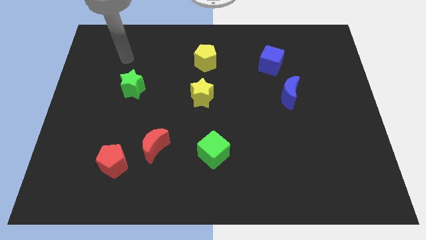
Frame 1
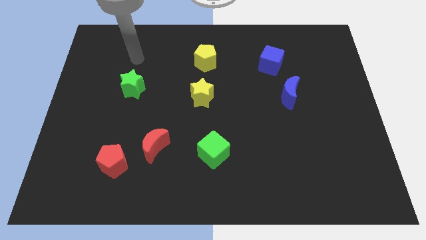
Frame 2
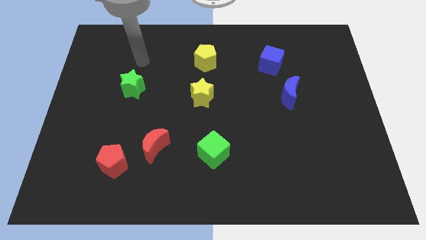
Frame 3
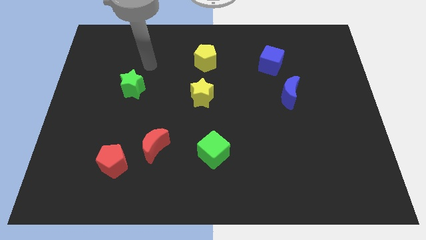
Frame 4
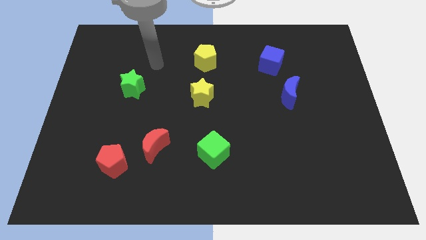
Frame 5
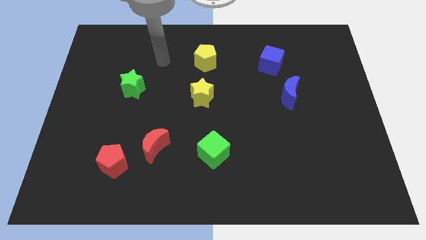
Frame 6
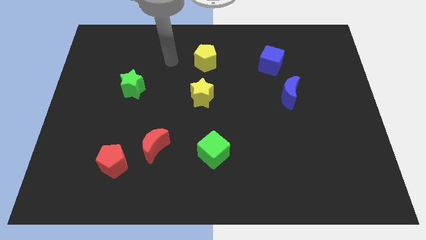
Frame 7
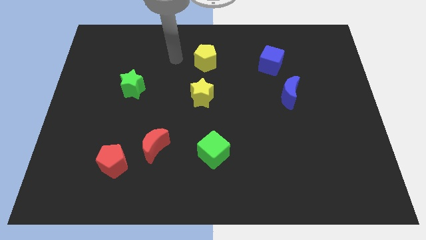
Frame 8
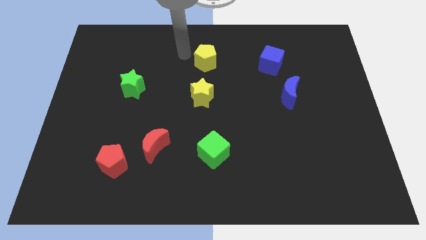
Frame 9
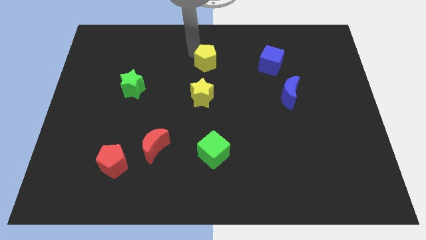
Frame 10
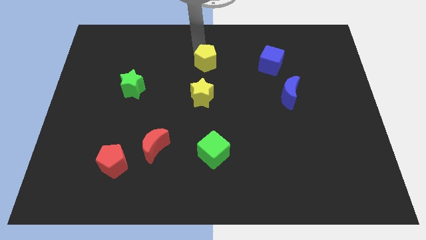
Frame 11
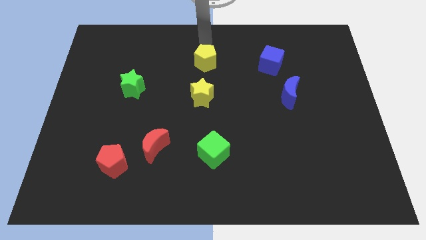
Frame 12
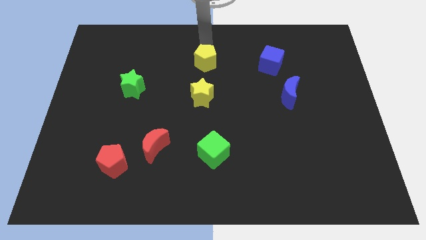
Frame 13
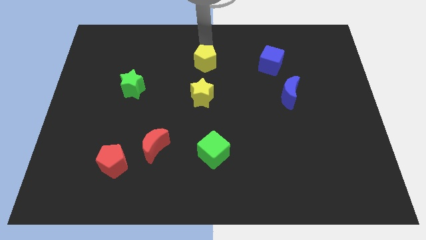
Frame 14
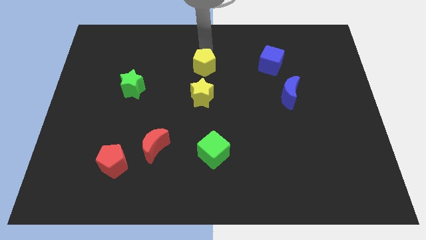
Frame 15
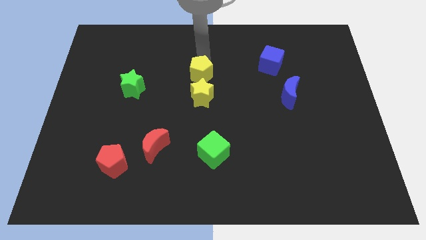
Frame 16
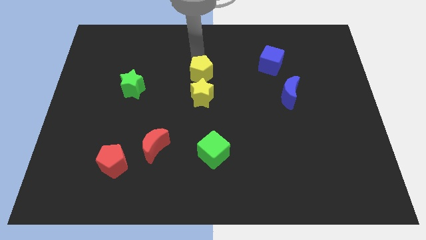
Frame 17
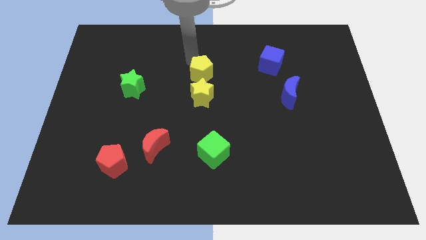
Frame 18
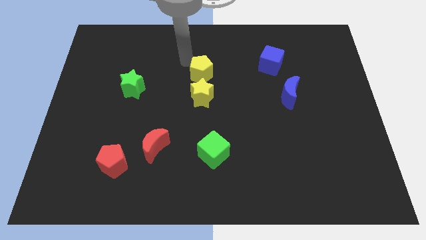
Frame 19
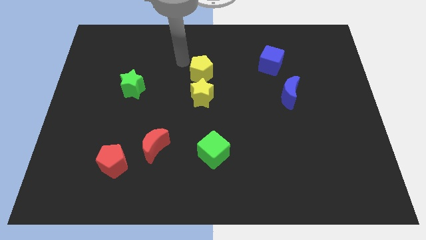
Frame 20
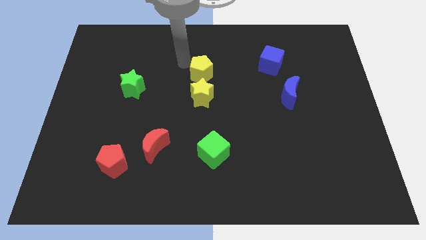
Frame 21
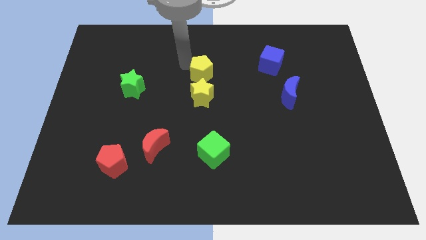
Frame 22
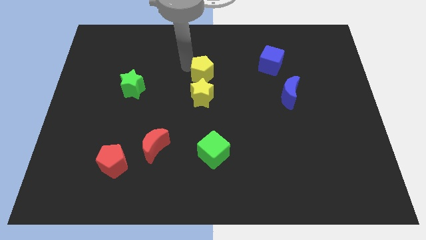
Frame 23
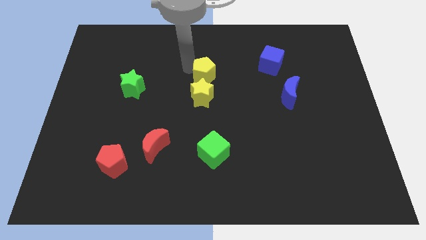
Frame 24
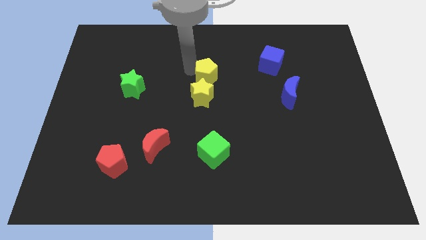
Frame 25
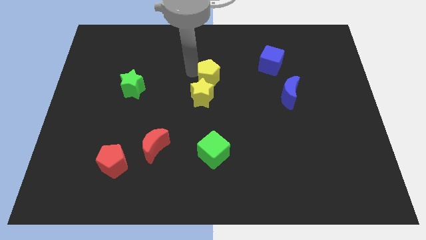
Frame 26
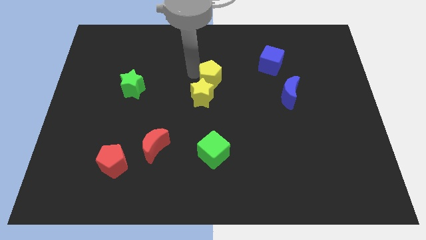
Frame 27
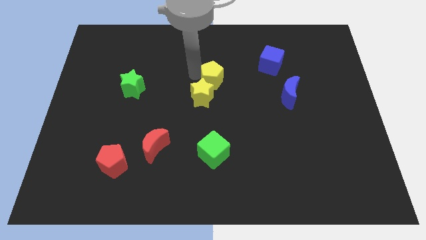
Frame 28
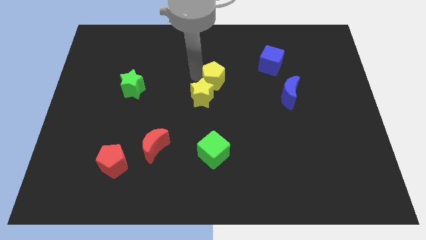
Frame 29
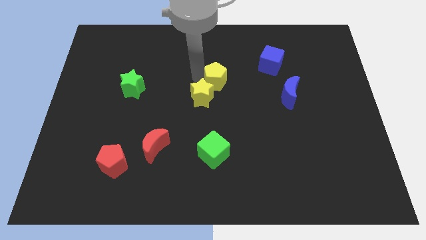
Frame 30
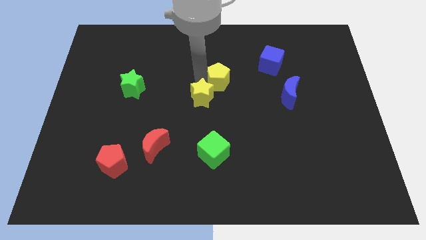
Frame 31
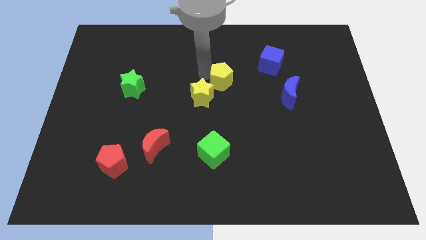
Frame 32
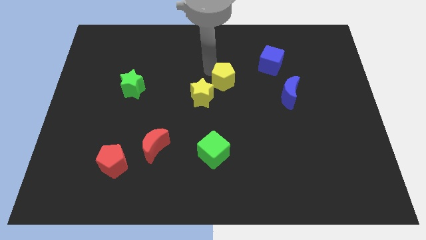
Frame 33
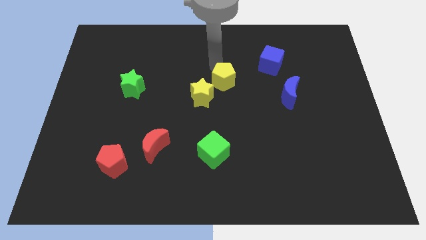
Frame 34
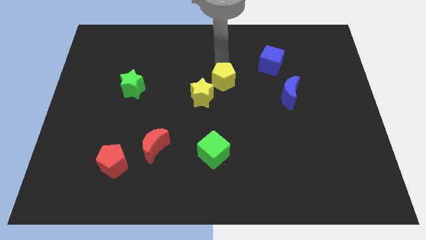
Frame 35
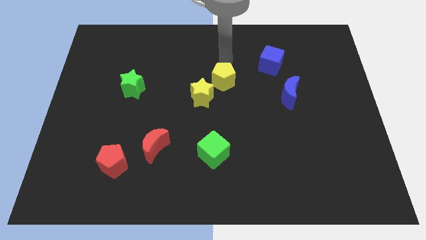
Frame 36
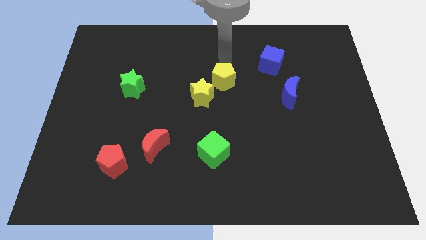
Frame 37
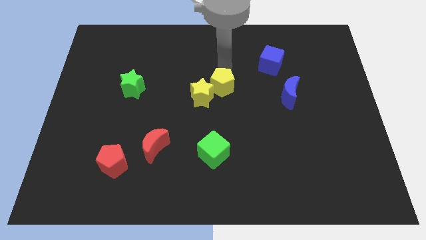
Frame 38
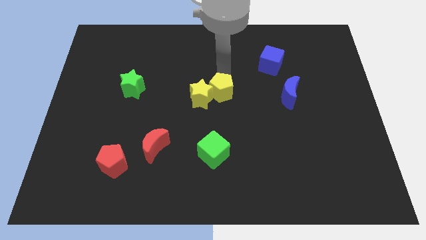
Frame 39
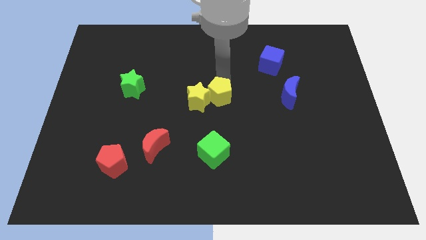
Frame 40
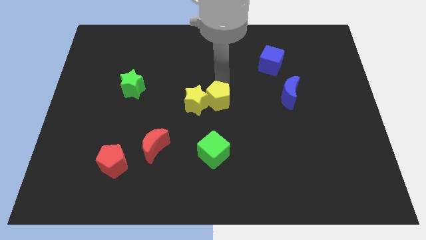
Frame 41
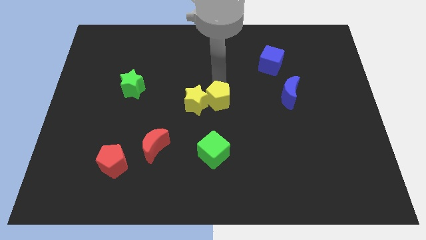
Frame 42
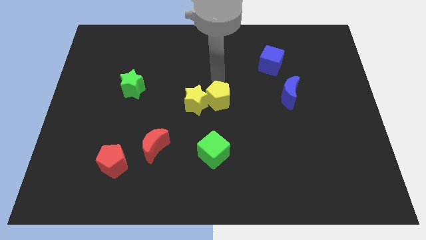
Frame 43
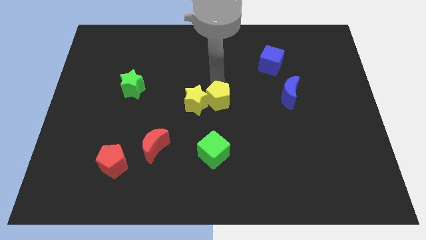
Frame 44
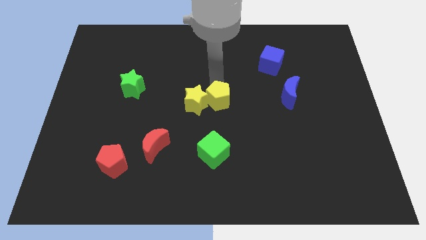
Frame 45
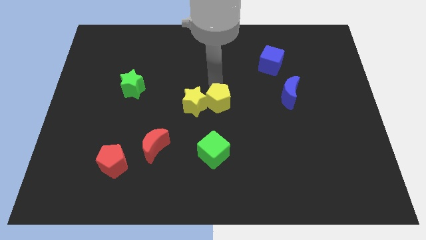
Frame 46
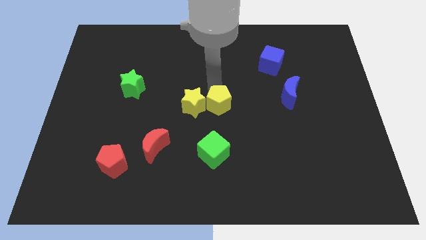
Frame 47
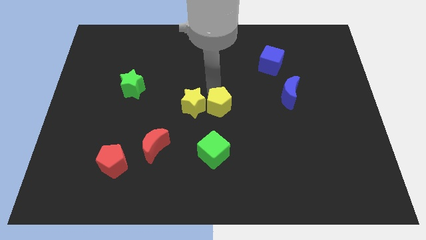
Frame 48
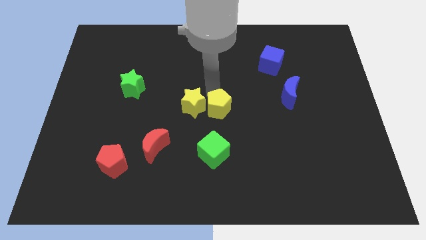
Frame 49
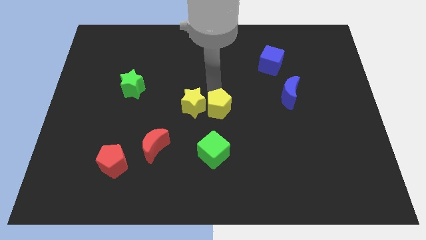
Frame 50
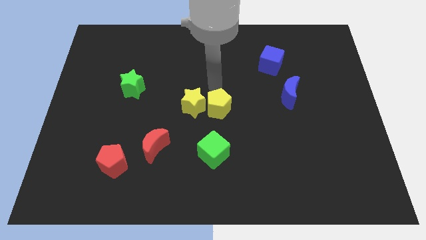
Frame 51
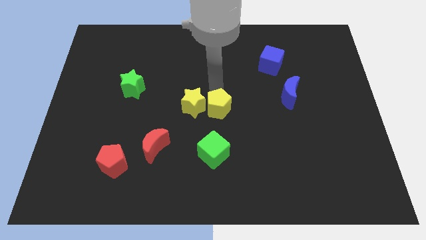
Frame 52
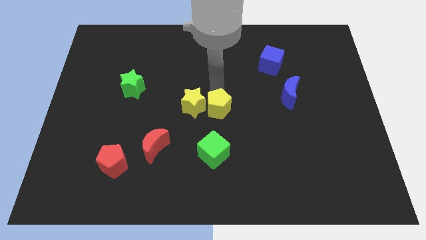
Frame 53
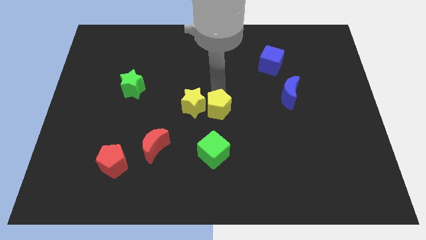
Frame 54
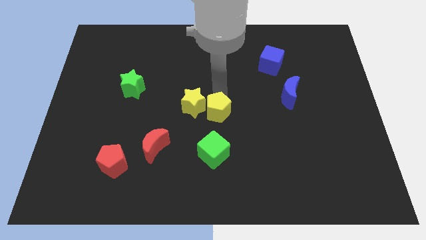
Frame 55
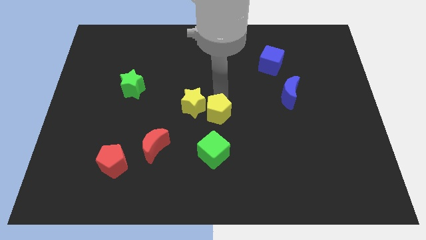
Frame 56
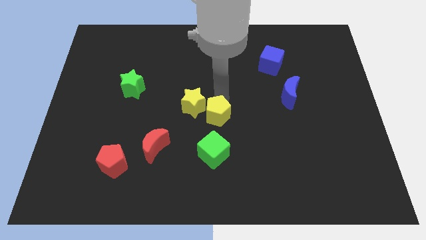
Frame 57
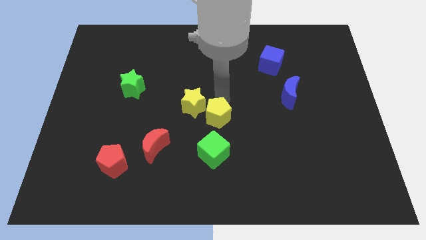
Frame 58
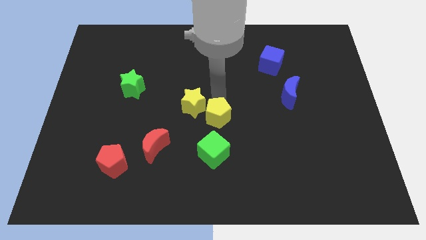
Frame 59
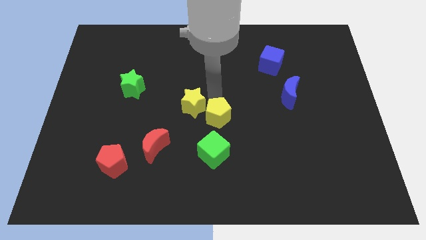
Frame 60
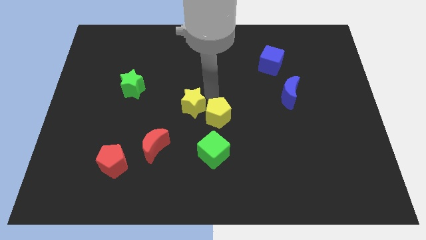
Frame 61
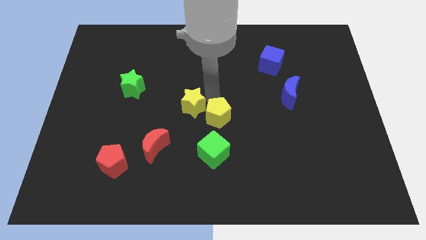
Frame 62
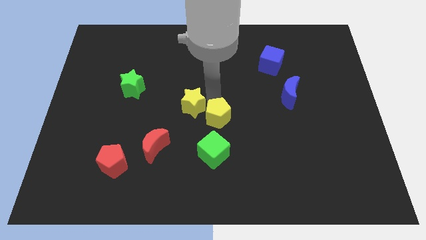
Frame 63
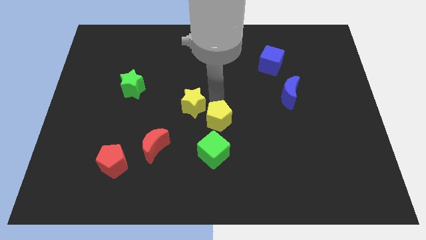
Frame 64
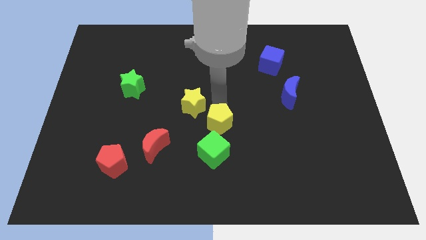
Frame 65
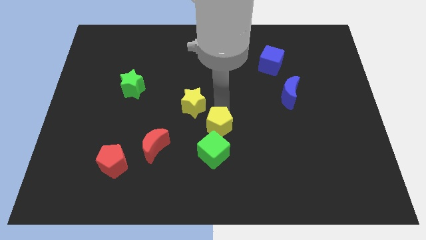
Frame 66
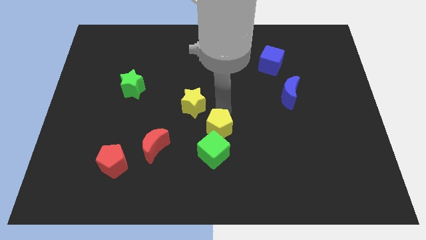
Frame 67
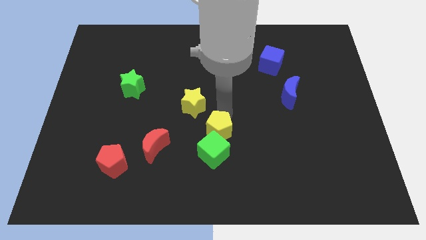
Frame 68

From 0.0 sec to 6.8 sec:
put the yellow pentagon close to the green cube
